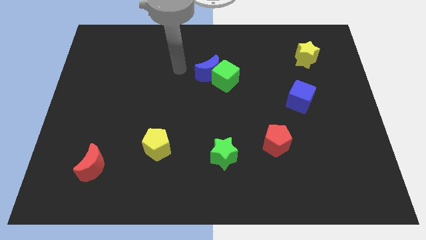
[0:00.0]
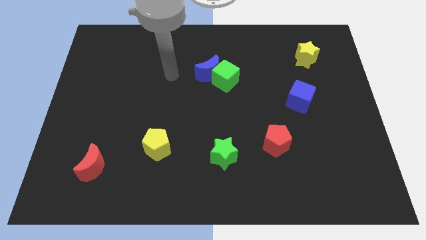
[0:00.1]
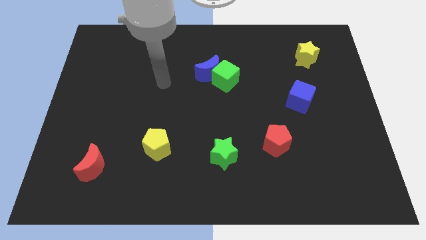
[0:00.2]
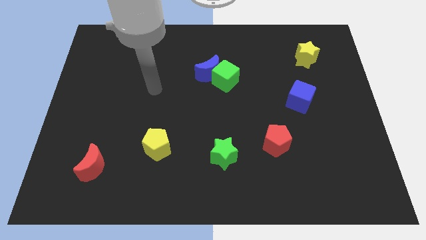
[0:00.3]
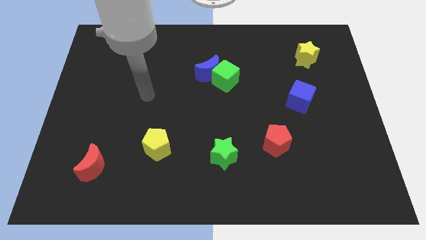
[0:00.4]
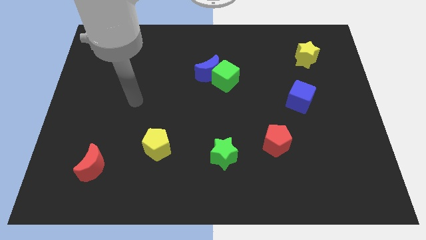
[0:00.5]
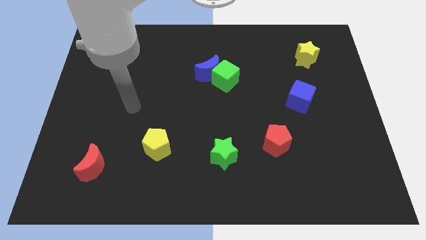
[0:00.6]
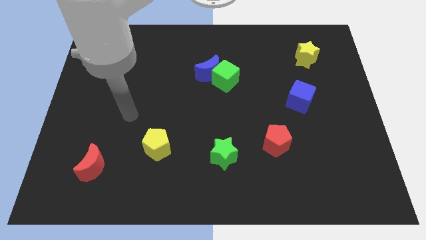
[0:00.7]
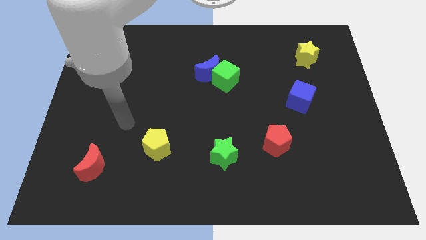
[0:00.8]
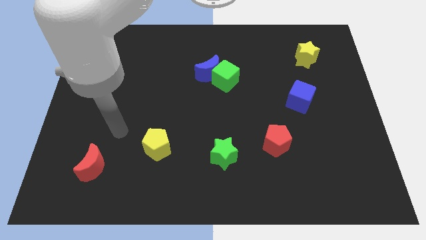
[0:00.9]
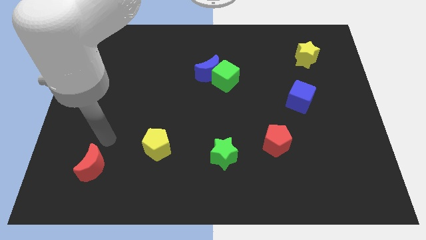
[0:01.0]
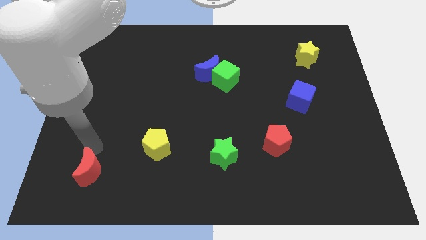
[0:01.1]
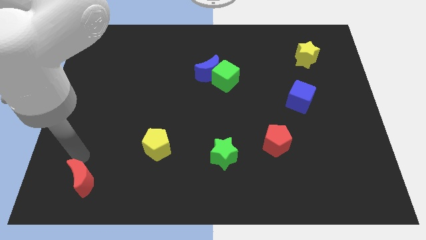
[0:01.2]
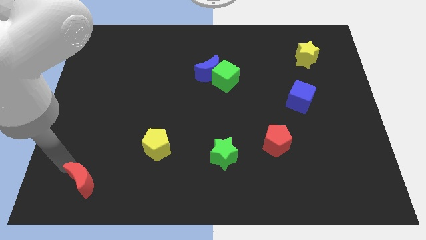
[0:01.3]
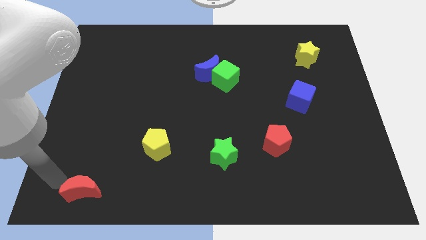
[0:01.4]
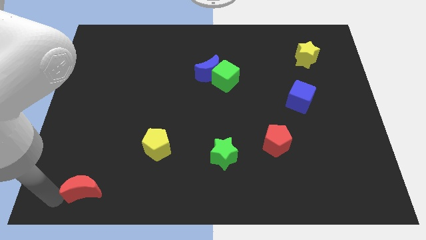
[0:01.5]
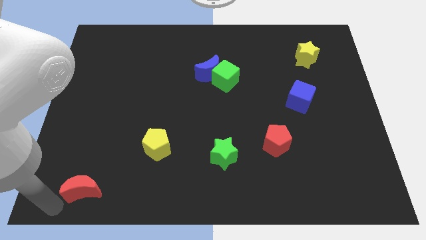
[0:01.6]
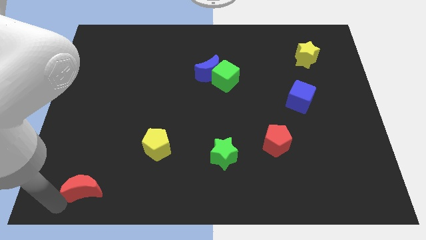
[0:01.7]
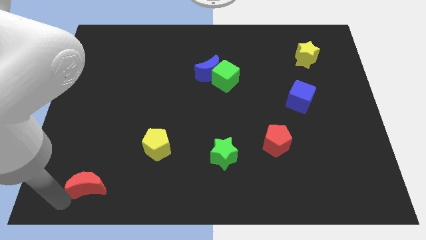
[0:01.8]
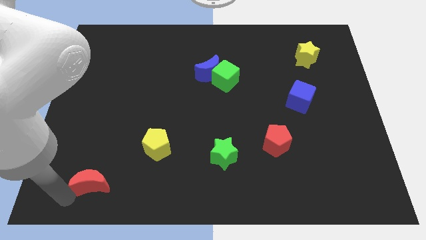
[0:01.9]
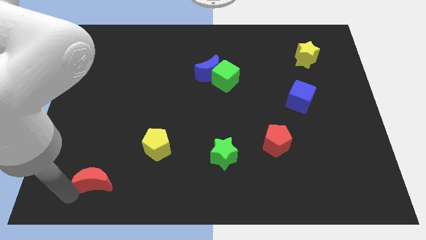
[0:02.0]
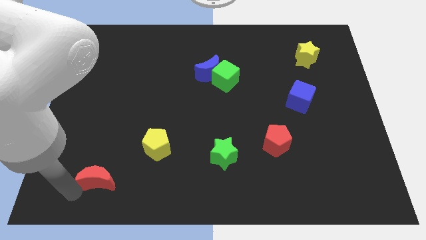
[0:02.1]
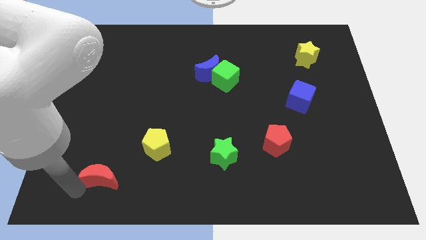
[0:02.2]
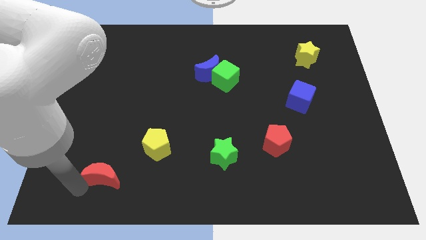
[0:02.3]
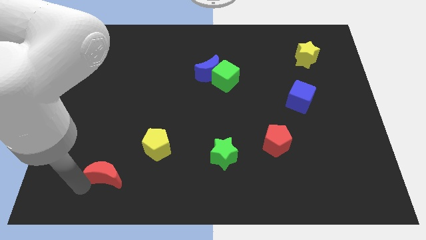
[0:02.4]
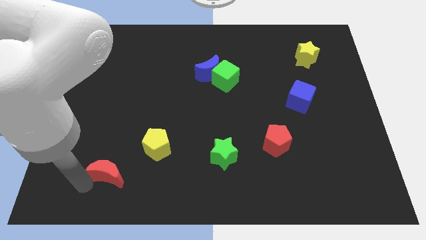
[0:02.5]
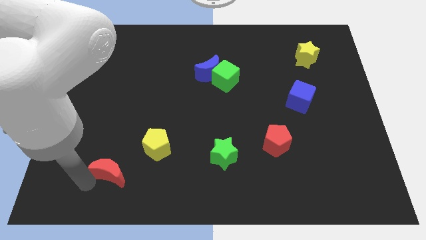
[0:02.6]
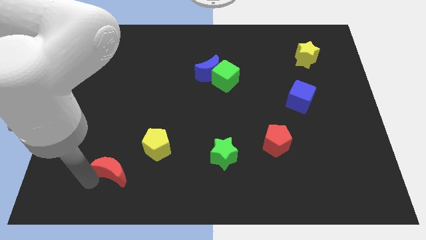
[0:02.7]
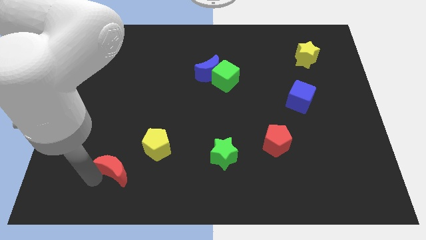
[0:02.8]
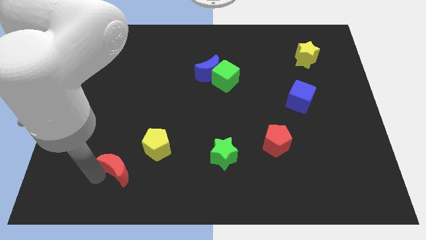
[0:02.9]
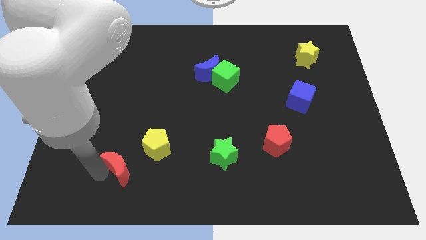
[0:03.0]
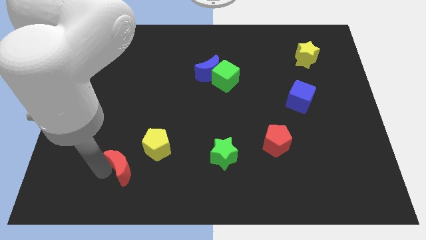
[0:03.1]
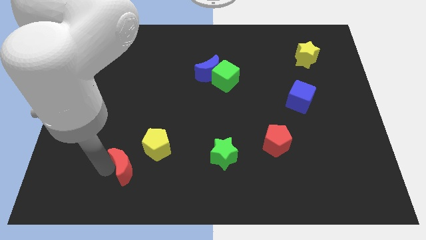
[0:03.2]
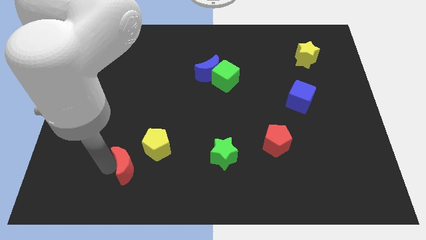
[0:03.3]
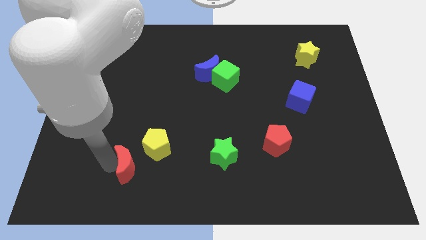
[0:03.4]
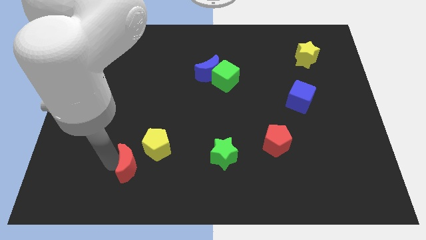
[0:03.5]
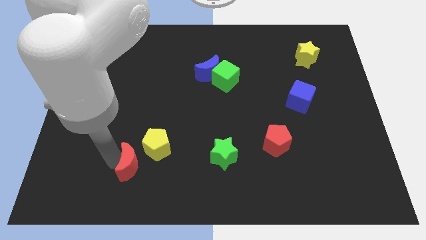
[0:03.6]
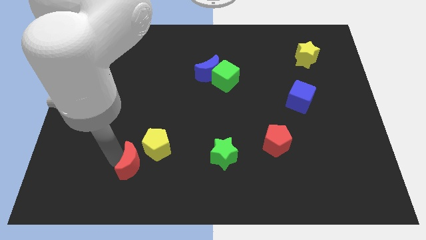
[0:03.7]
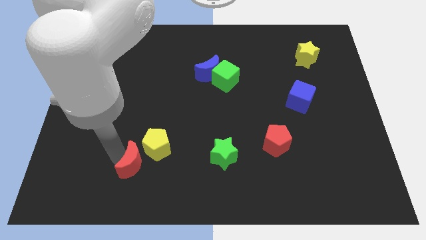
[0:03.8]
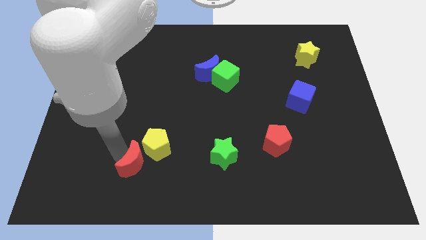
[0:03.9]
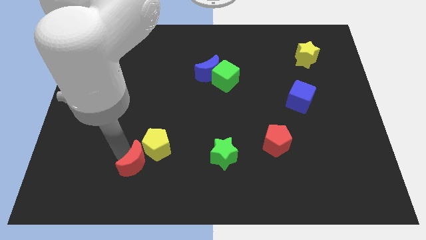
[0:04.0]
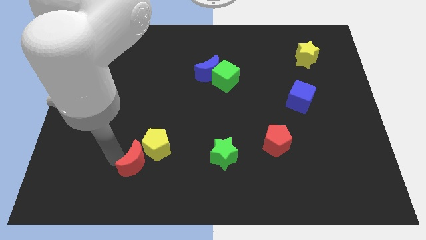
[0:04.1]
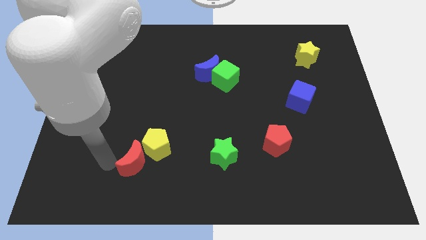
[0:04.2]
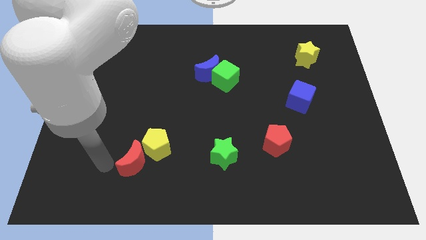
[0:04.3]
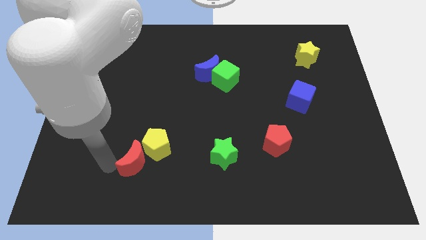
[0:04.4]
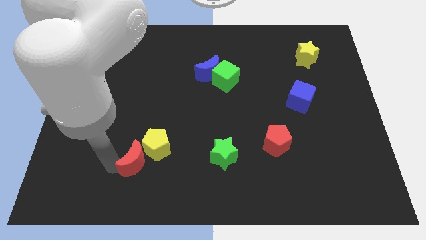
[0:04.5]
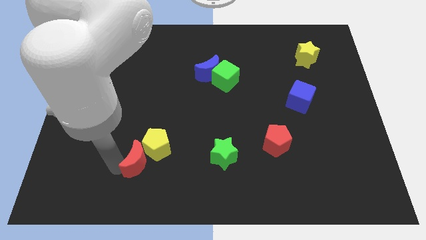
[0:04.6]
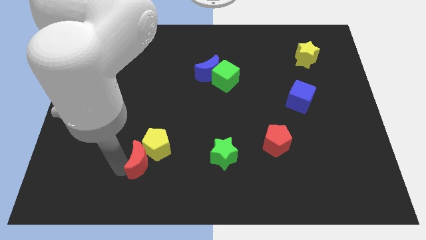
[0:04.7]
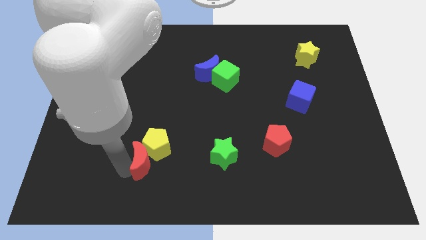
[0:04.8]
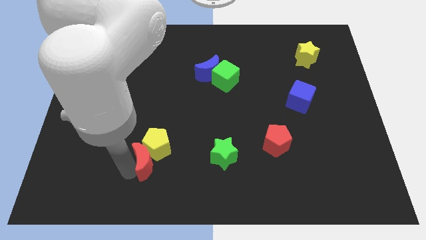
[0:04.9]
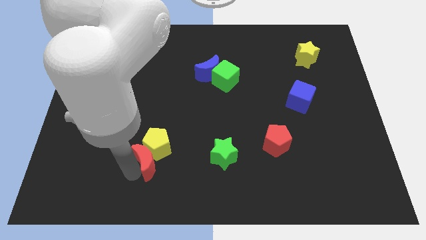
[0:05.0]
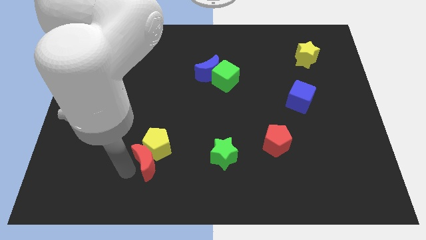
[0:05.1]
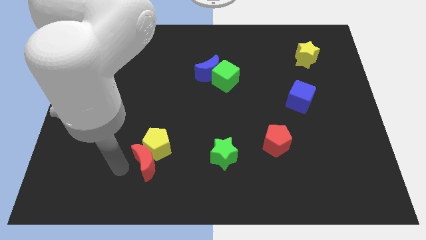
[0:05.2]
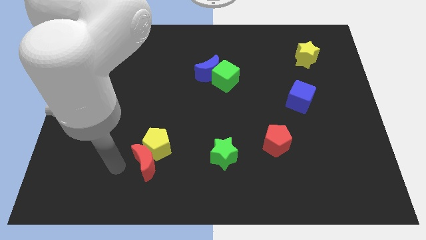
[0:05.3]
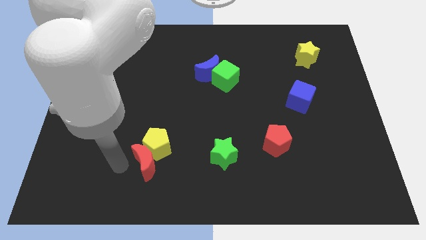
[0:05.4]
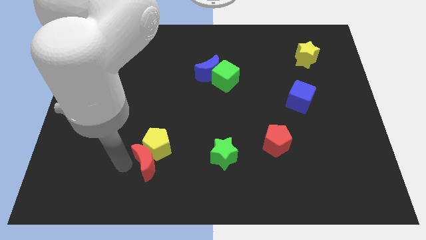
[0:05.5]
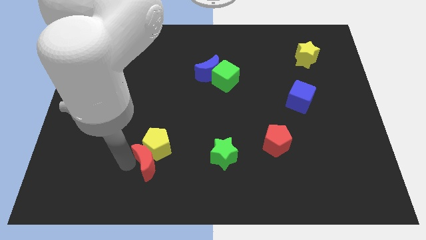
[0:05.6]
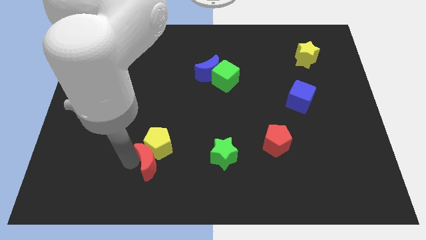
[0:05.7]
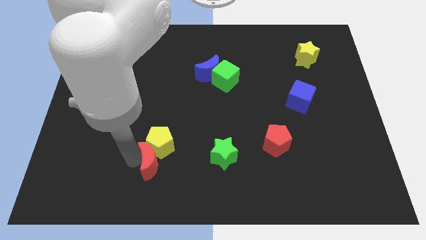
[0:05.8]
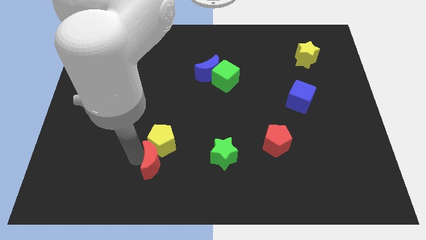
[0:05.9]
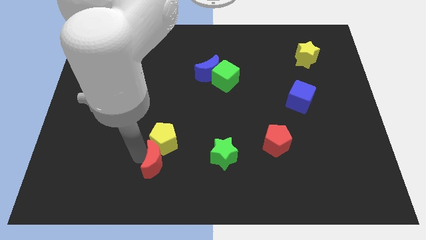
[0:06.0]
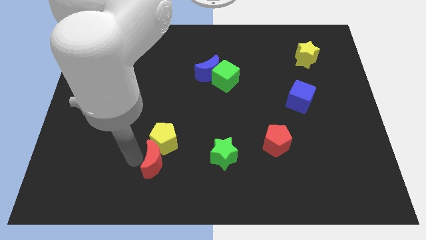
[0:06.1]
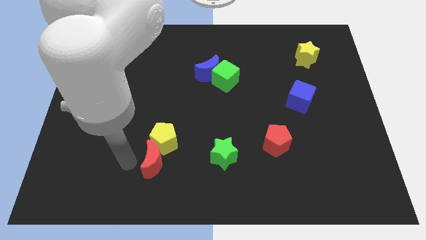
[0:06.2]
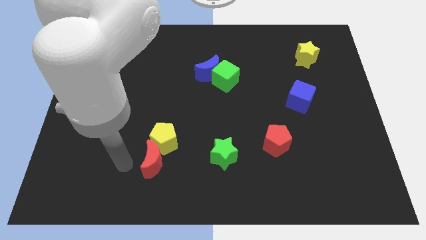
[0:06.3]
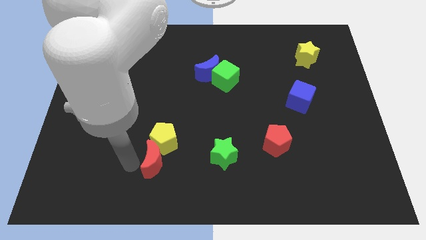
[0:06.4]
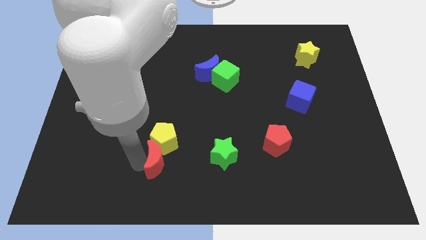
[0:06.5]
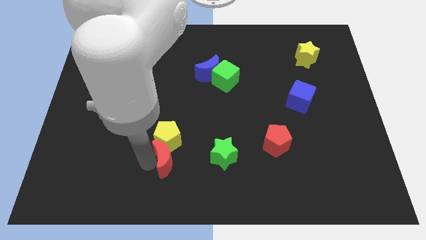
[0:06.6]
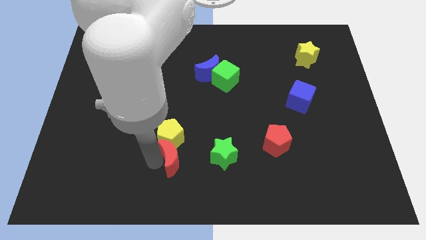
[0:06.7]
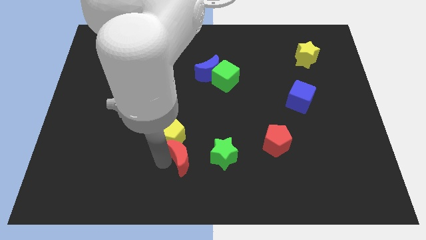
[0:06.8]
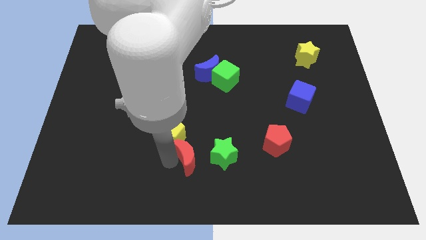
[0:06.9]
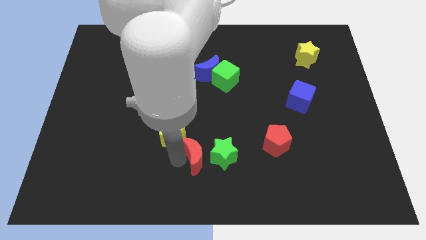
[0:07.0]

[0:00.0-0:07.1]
move the red moon towards the green star

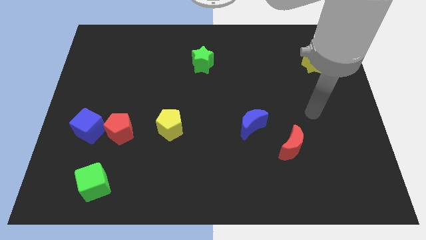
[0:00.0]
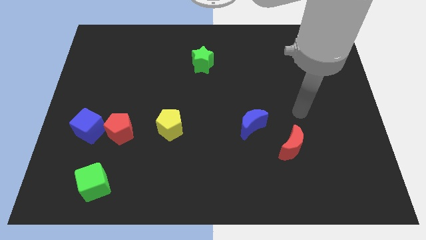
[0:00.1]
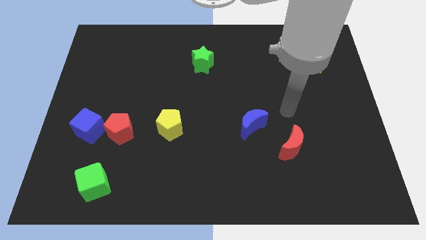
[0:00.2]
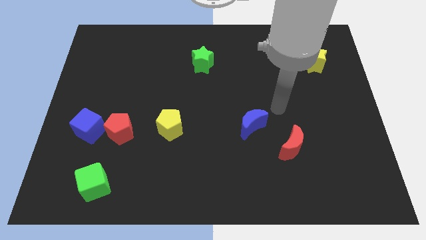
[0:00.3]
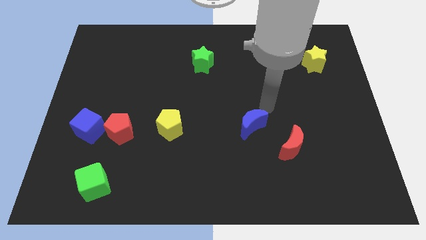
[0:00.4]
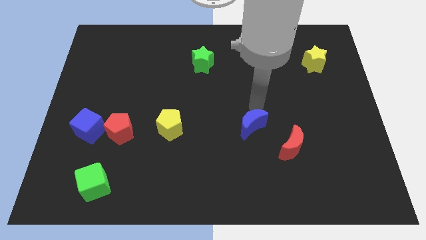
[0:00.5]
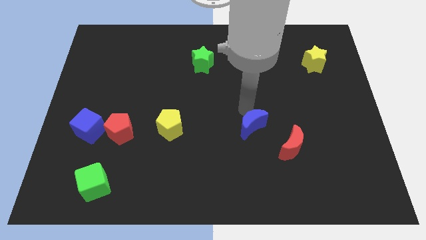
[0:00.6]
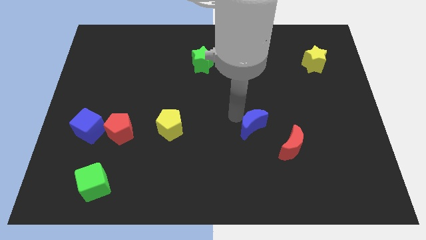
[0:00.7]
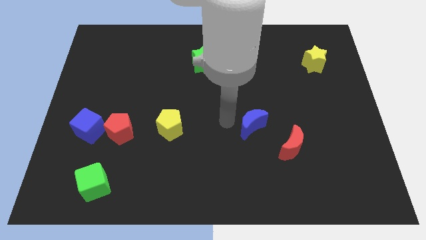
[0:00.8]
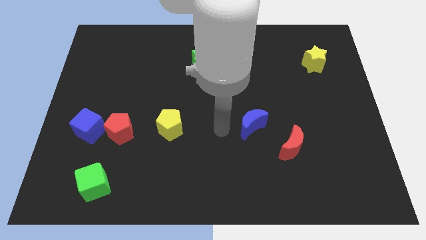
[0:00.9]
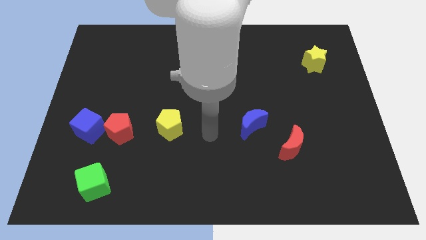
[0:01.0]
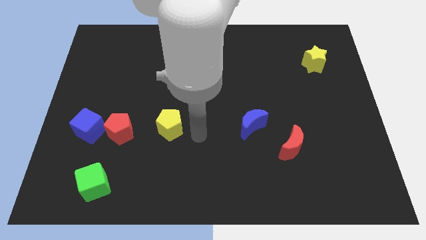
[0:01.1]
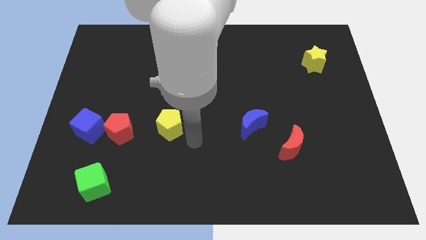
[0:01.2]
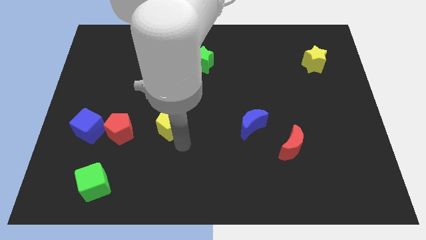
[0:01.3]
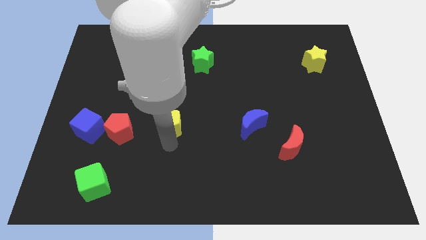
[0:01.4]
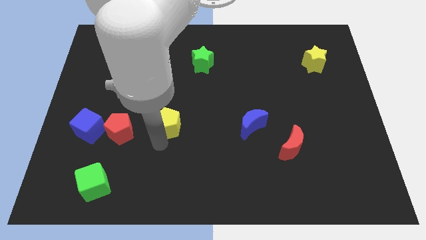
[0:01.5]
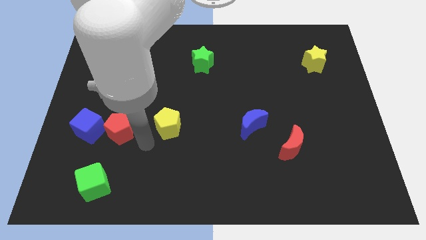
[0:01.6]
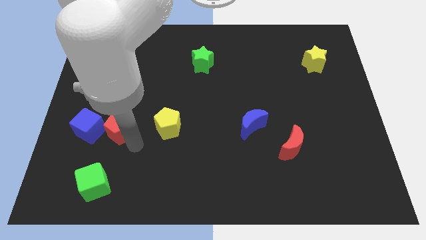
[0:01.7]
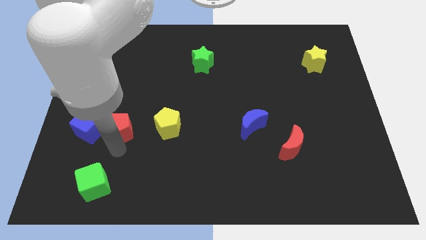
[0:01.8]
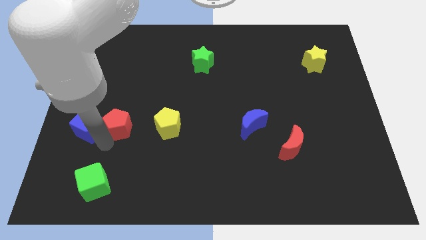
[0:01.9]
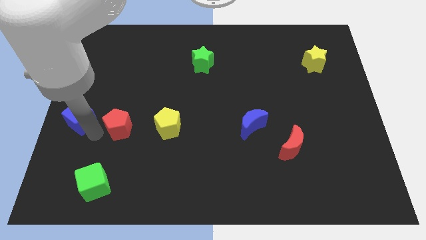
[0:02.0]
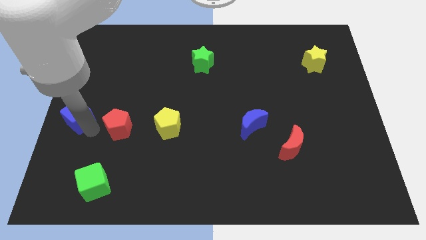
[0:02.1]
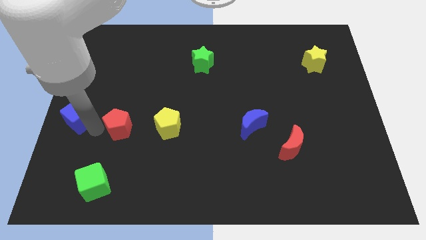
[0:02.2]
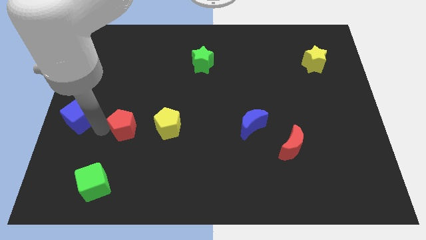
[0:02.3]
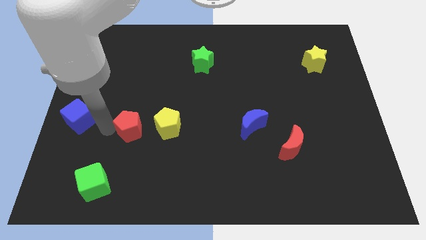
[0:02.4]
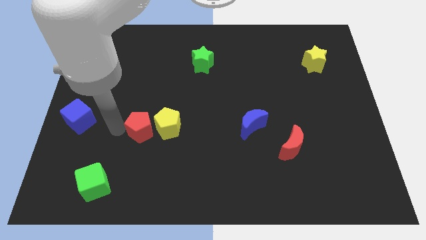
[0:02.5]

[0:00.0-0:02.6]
move the red pentagon next to the yellow pentagon
